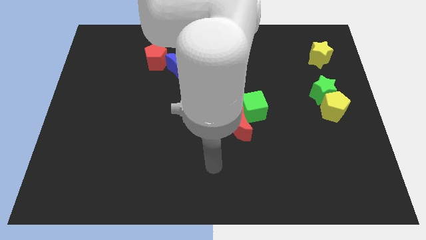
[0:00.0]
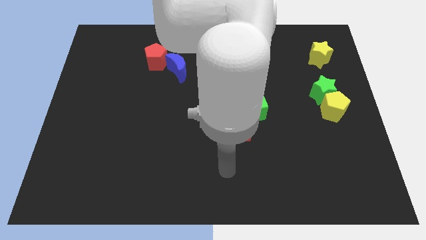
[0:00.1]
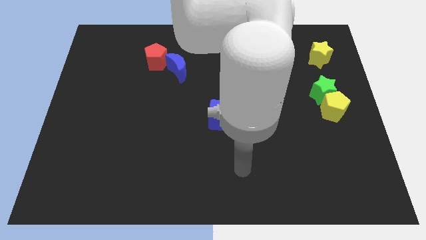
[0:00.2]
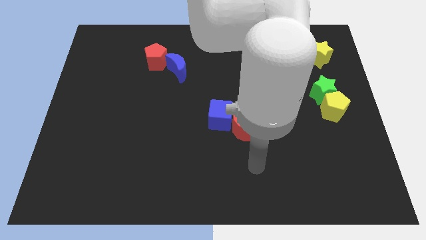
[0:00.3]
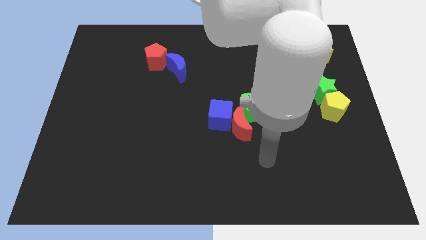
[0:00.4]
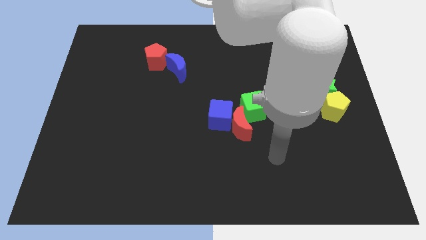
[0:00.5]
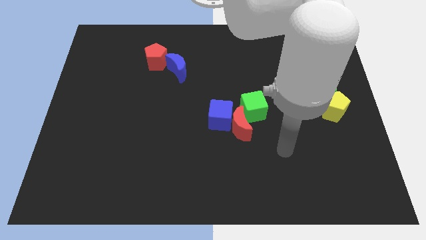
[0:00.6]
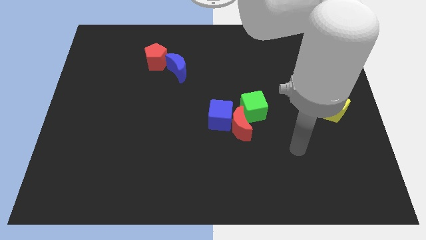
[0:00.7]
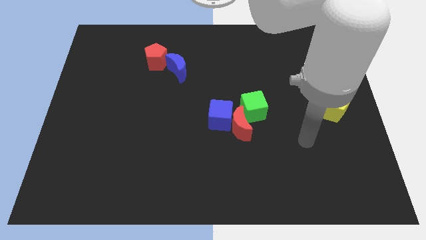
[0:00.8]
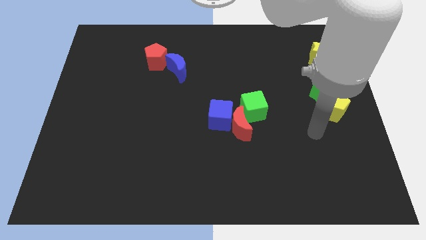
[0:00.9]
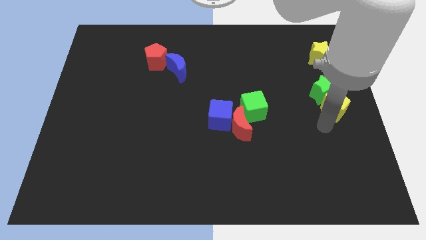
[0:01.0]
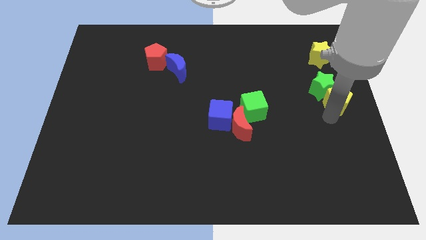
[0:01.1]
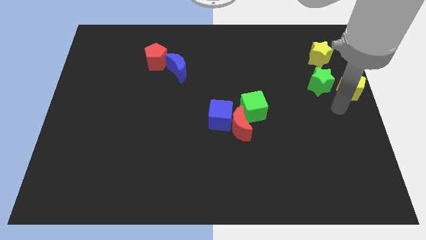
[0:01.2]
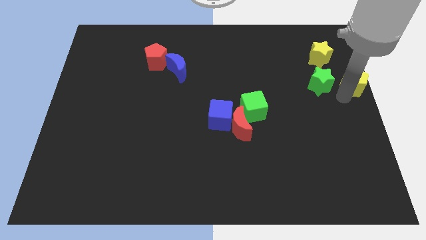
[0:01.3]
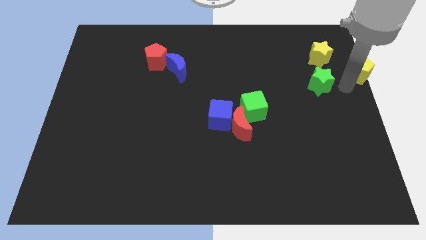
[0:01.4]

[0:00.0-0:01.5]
move the green star away from the yellow pentagon

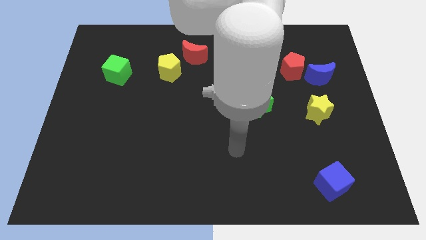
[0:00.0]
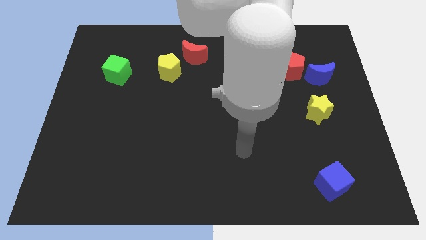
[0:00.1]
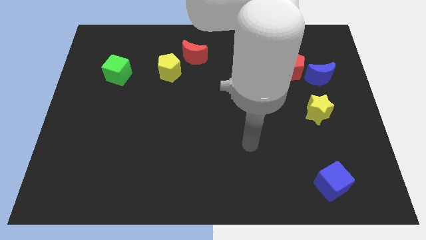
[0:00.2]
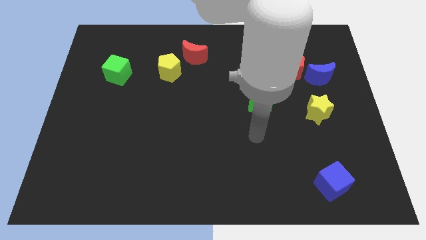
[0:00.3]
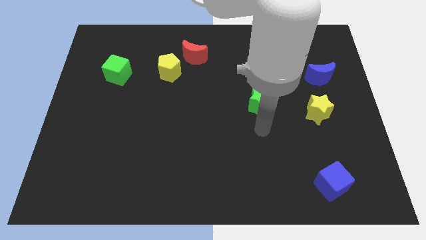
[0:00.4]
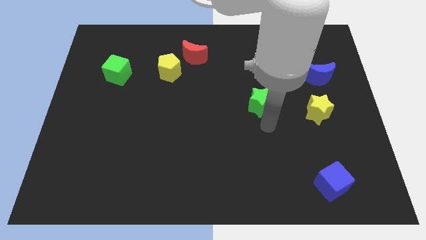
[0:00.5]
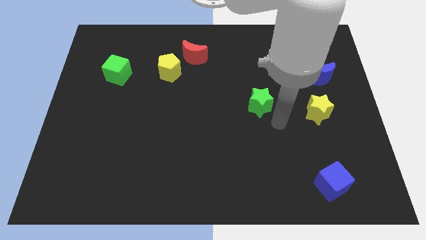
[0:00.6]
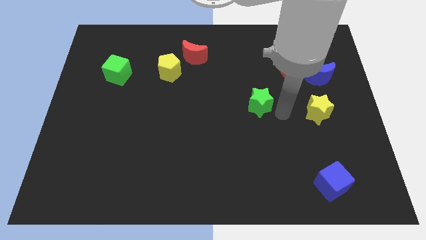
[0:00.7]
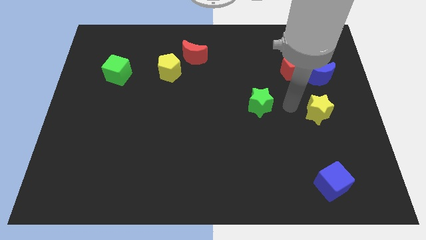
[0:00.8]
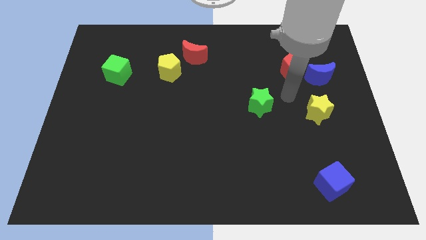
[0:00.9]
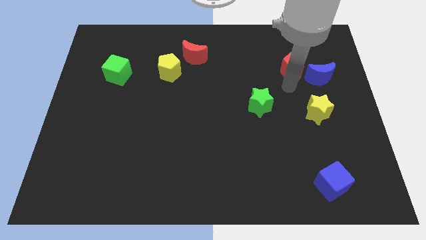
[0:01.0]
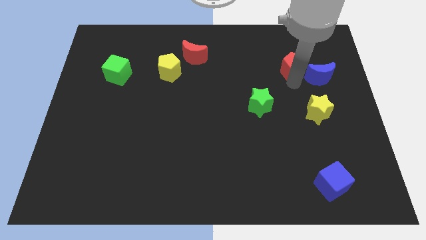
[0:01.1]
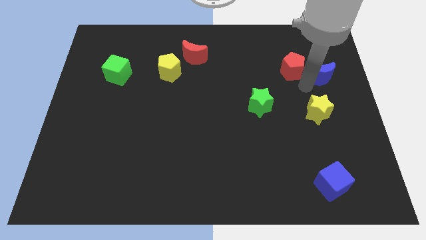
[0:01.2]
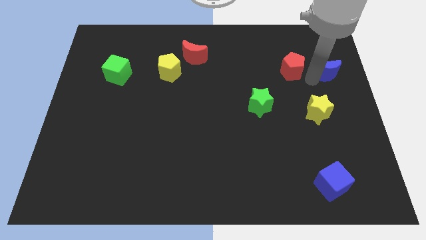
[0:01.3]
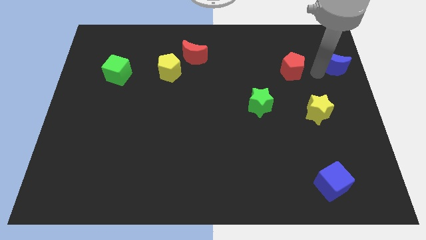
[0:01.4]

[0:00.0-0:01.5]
pull the red pentagon apart from the blue moon

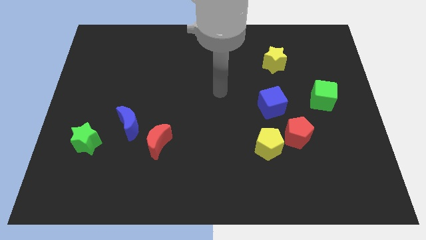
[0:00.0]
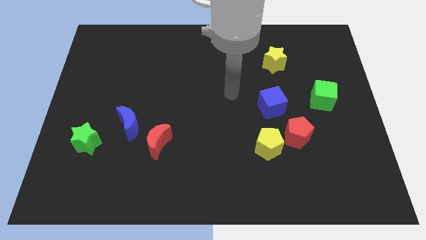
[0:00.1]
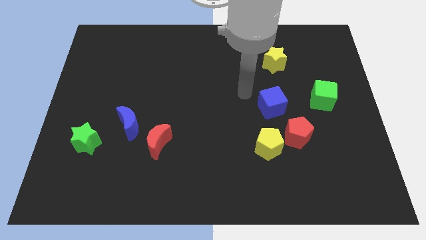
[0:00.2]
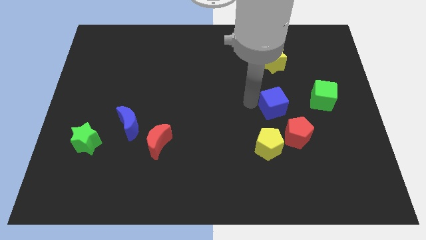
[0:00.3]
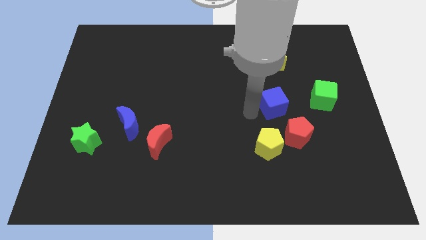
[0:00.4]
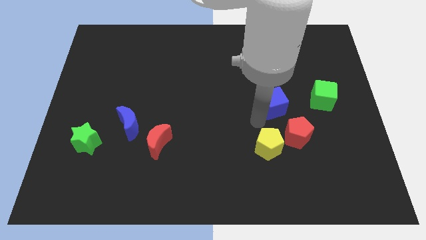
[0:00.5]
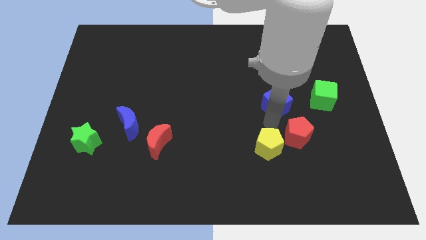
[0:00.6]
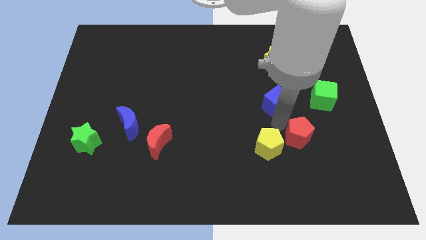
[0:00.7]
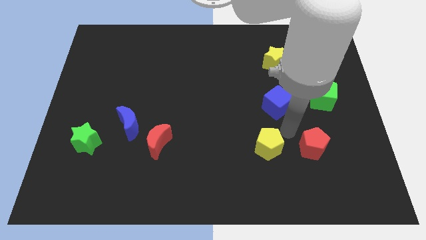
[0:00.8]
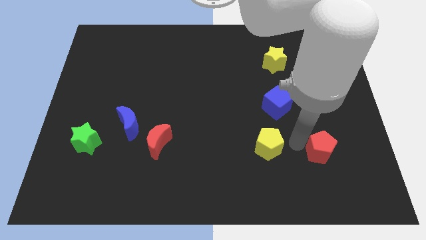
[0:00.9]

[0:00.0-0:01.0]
separate the yellow pentagon from the red pentagon

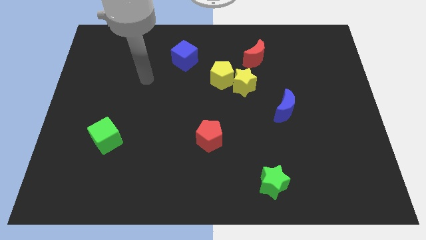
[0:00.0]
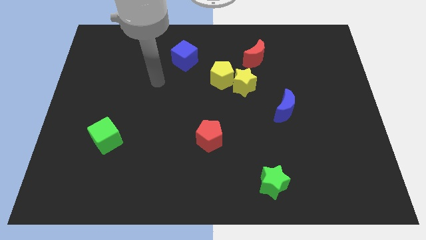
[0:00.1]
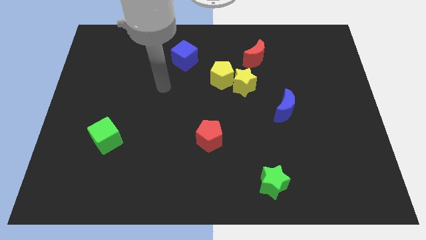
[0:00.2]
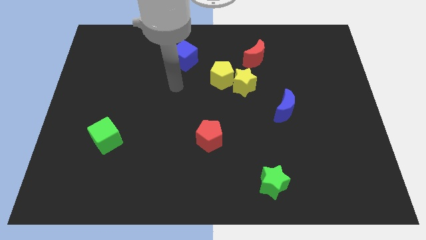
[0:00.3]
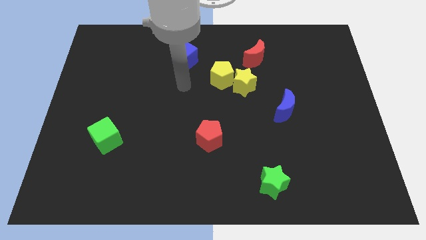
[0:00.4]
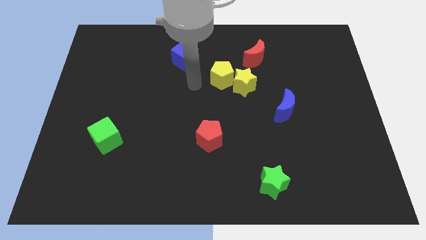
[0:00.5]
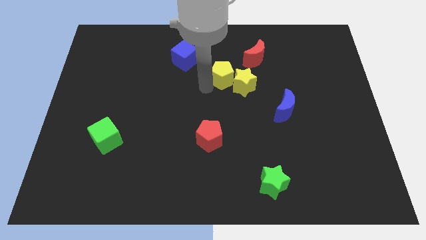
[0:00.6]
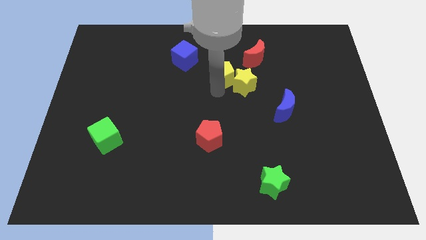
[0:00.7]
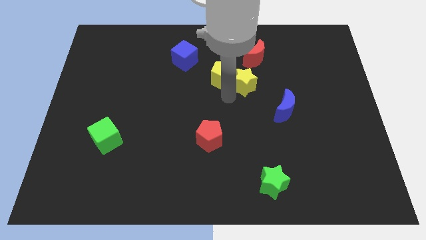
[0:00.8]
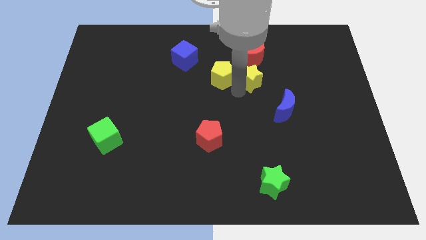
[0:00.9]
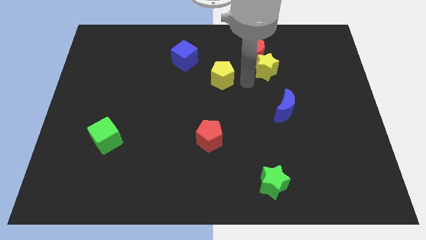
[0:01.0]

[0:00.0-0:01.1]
pull the yellow pentagon apart from the yellow star

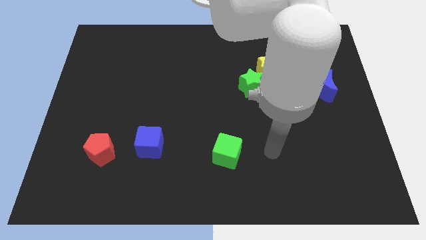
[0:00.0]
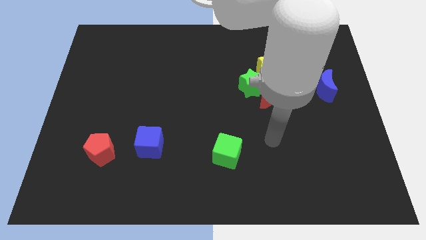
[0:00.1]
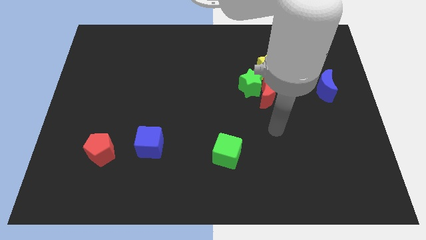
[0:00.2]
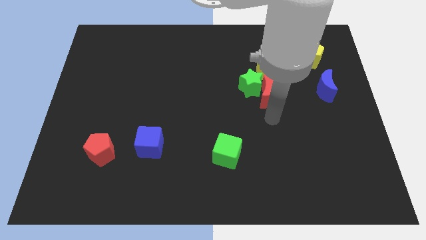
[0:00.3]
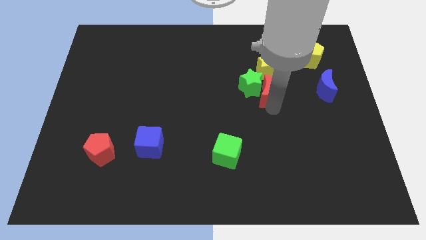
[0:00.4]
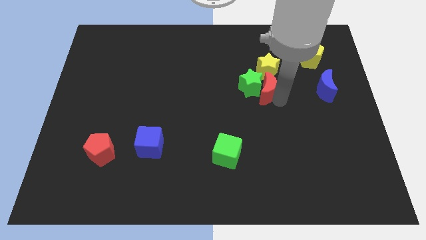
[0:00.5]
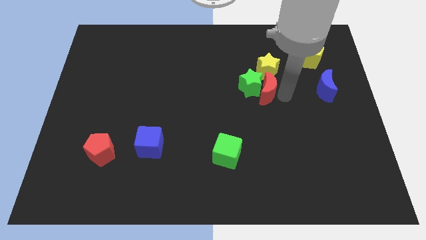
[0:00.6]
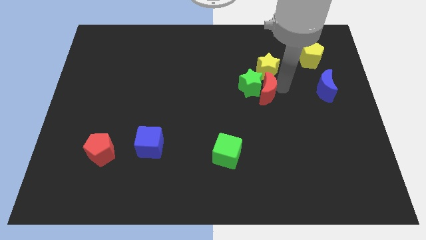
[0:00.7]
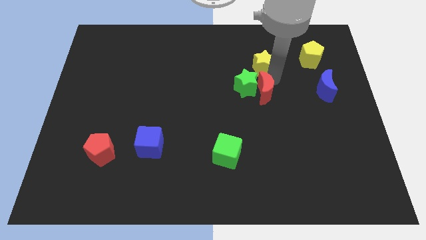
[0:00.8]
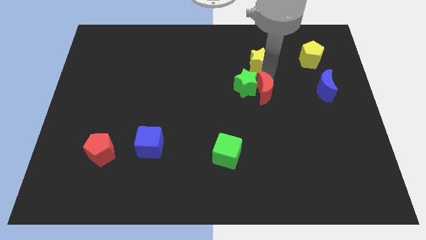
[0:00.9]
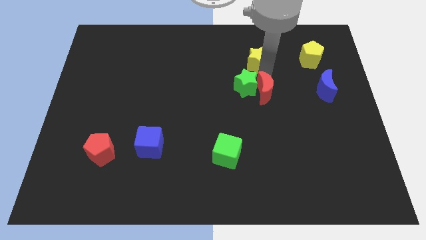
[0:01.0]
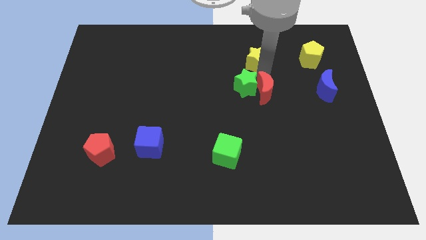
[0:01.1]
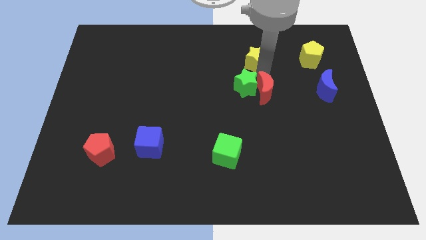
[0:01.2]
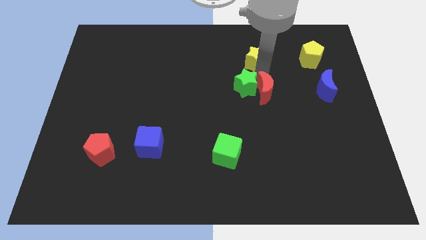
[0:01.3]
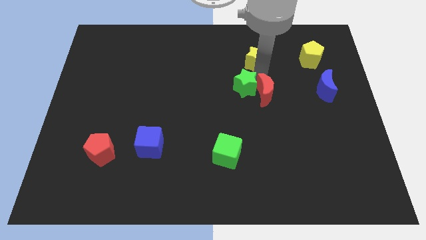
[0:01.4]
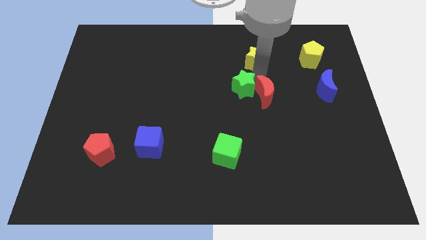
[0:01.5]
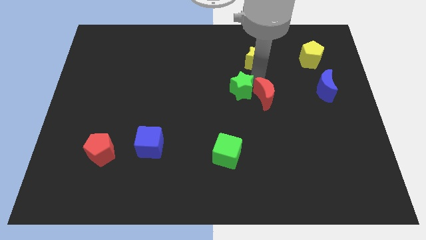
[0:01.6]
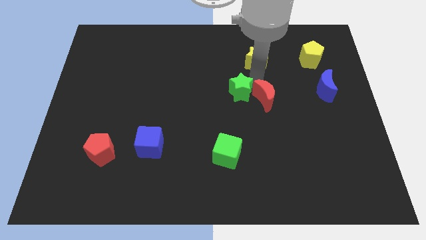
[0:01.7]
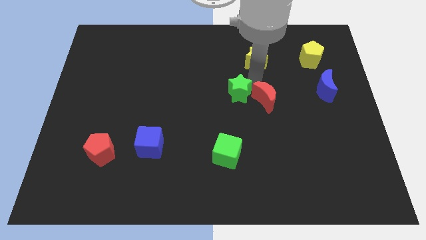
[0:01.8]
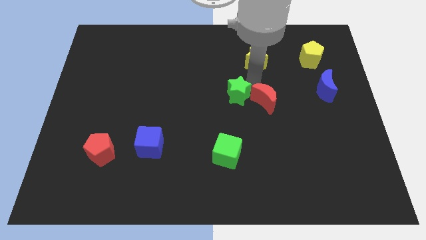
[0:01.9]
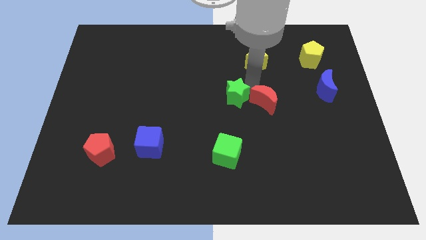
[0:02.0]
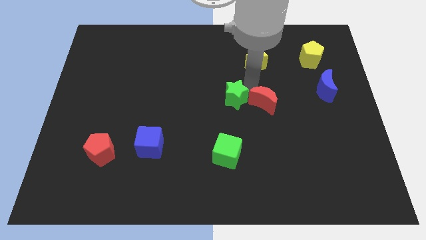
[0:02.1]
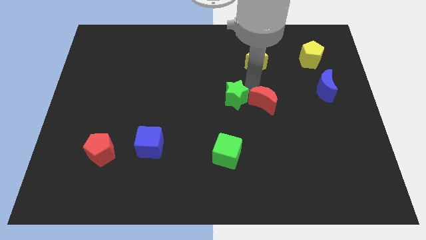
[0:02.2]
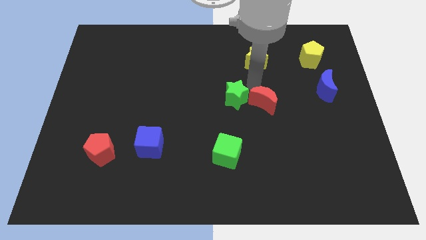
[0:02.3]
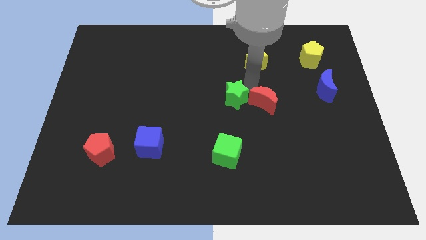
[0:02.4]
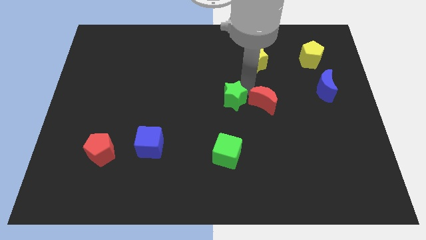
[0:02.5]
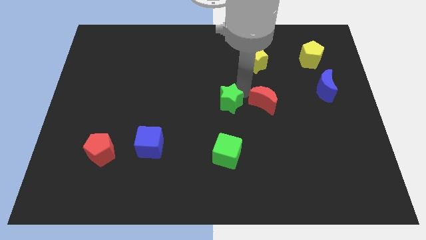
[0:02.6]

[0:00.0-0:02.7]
separate the green star from the red moon and yellow star

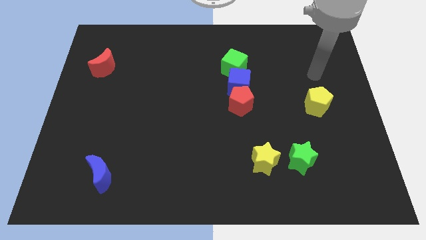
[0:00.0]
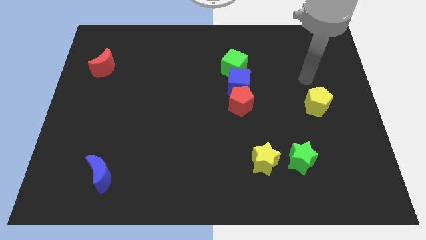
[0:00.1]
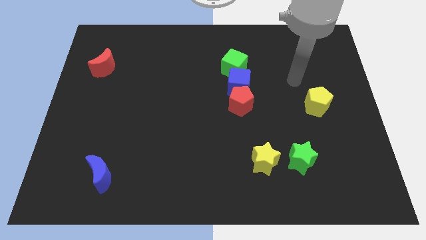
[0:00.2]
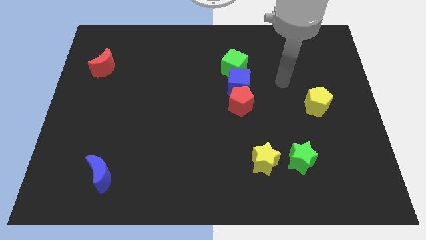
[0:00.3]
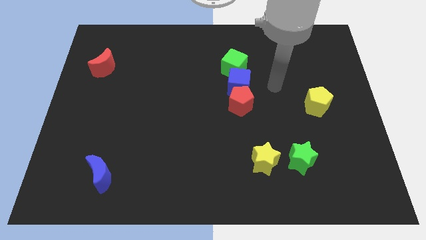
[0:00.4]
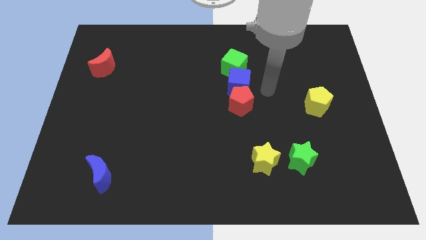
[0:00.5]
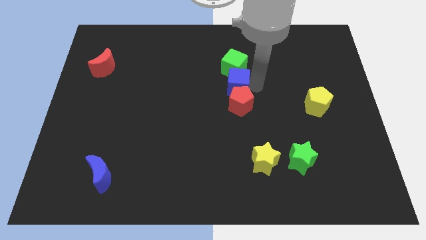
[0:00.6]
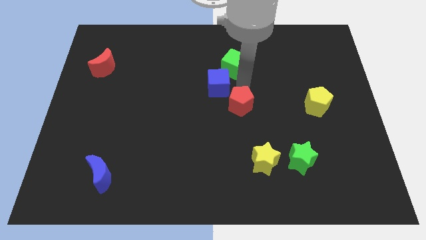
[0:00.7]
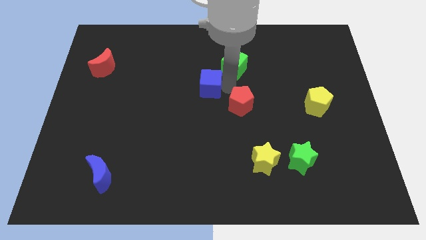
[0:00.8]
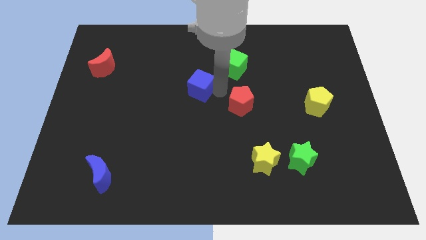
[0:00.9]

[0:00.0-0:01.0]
separate the red pentagon from the blue cube

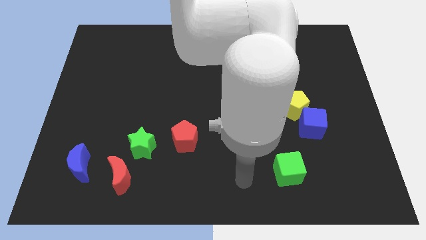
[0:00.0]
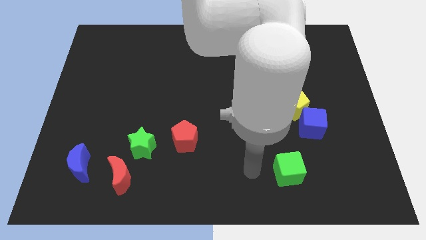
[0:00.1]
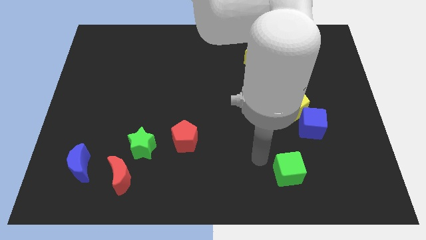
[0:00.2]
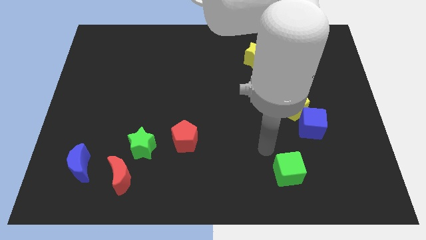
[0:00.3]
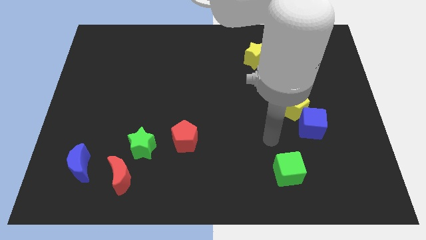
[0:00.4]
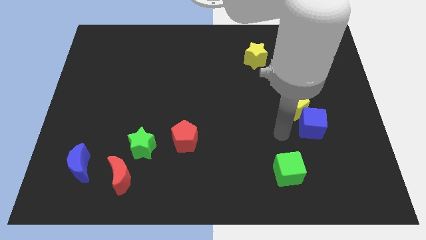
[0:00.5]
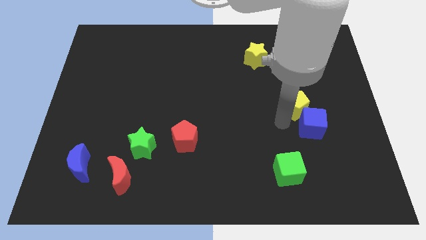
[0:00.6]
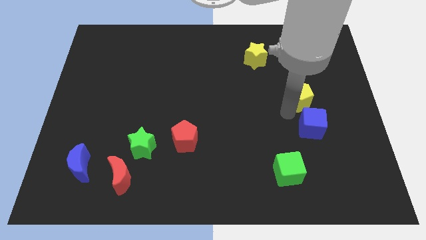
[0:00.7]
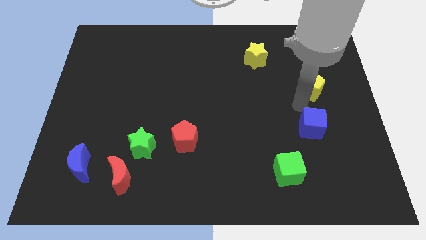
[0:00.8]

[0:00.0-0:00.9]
pull the blue cube apart from the yellow pentagon
